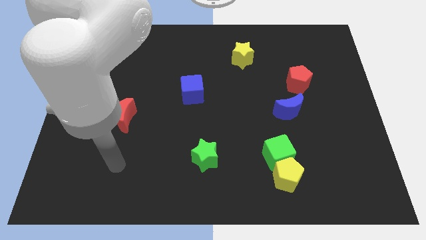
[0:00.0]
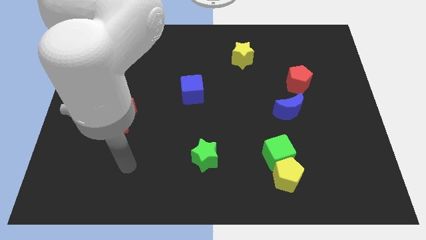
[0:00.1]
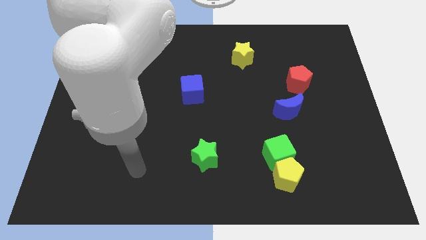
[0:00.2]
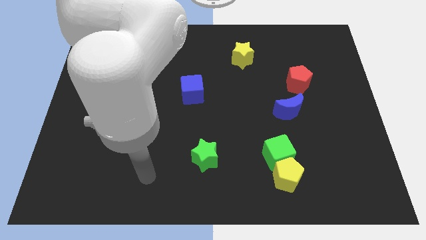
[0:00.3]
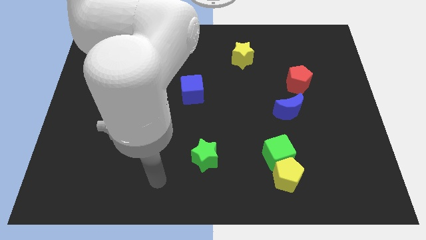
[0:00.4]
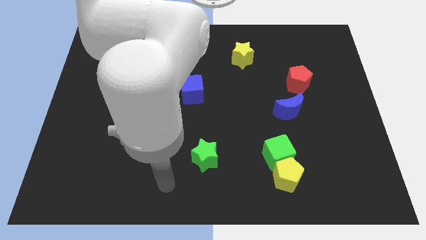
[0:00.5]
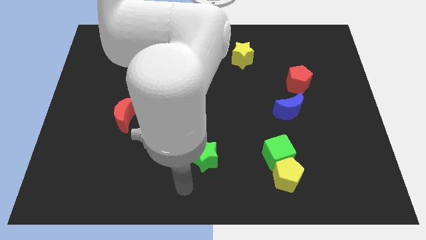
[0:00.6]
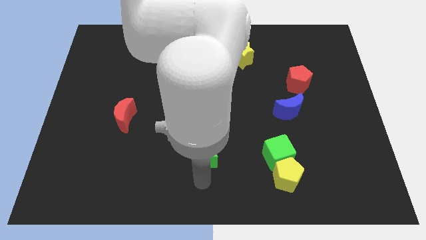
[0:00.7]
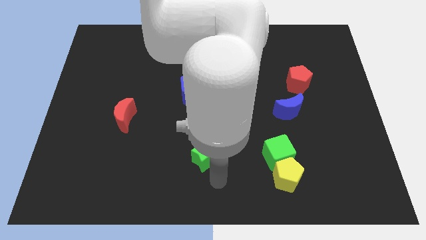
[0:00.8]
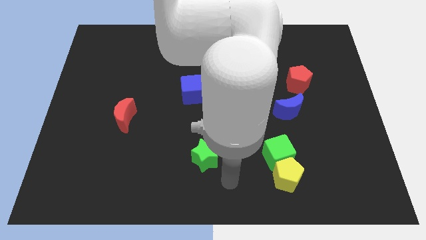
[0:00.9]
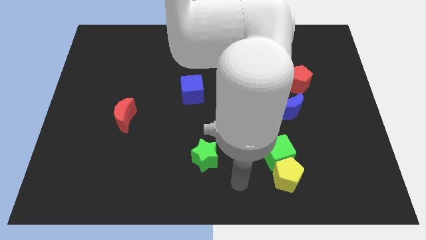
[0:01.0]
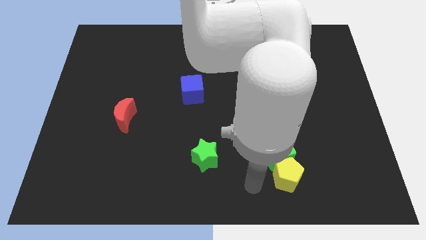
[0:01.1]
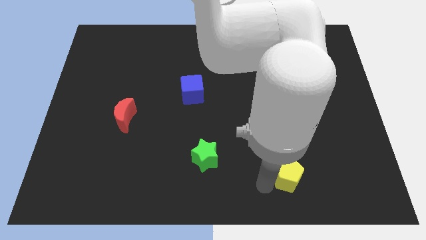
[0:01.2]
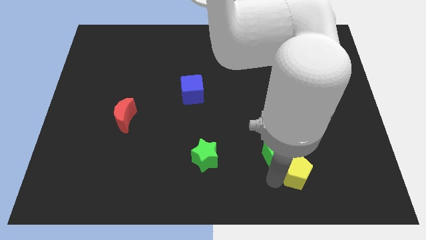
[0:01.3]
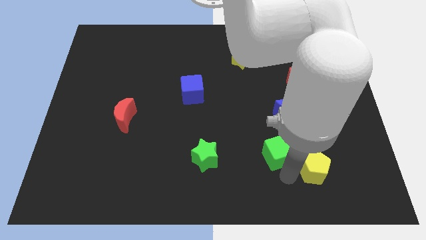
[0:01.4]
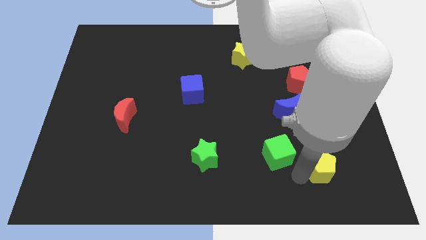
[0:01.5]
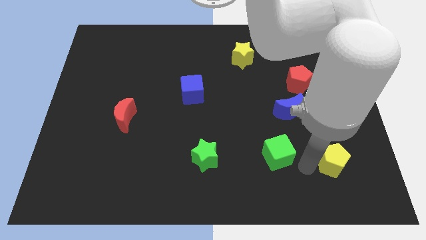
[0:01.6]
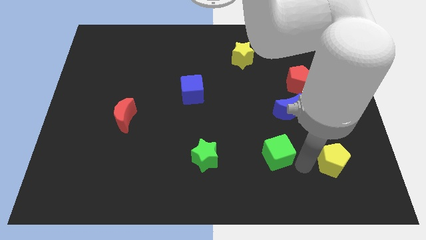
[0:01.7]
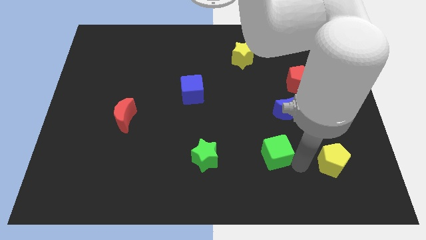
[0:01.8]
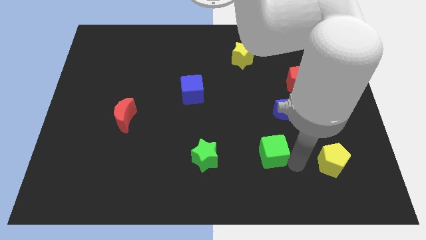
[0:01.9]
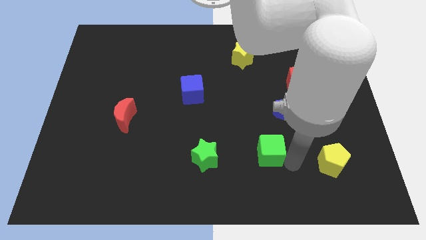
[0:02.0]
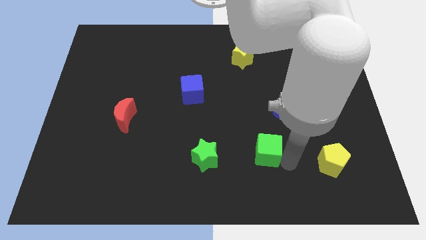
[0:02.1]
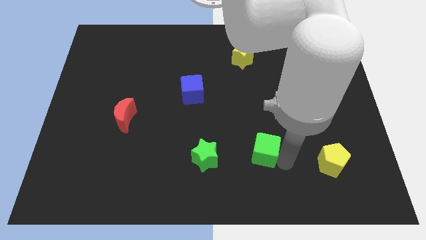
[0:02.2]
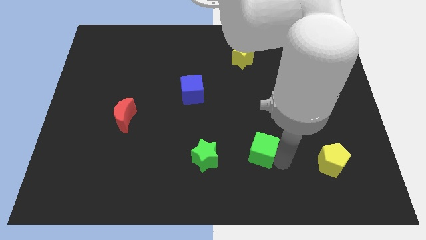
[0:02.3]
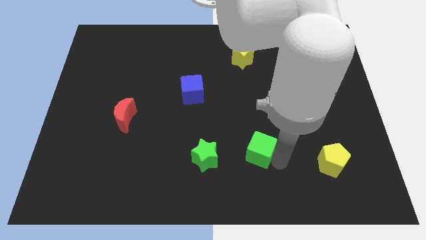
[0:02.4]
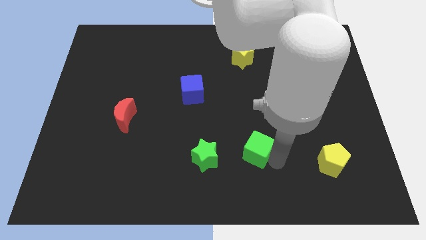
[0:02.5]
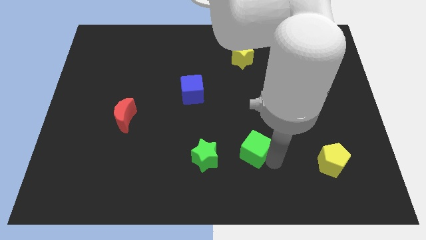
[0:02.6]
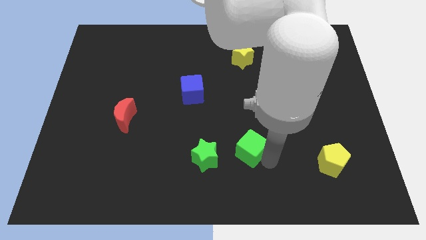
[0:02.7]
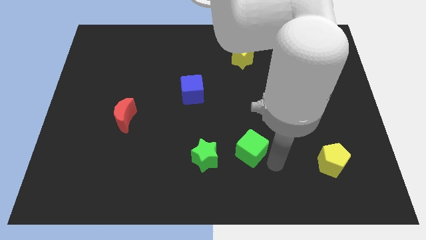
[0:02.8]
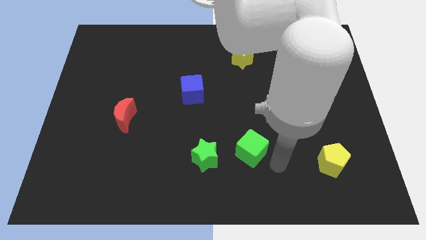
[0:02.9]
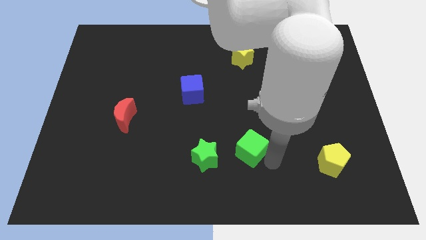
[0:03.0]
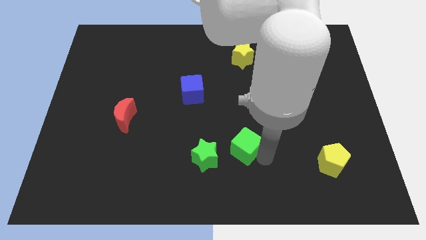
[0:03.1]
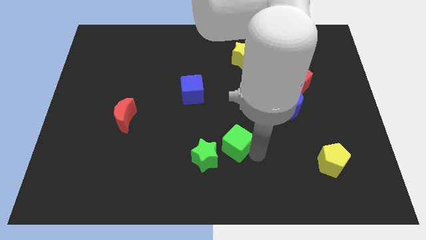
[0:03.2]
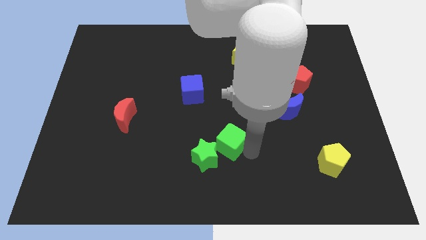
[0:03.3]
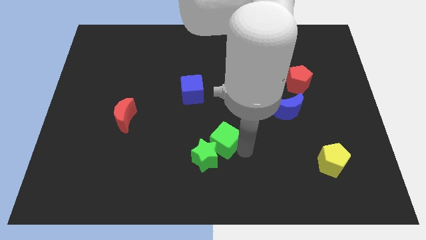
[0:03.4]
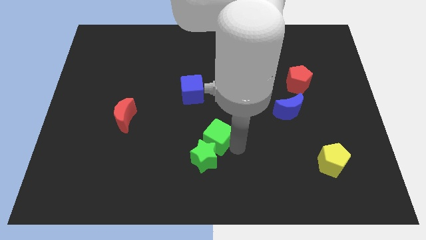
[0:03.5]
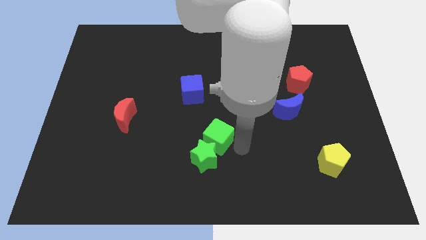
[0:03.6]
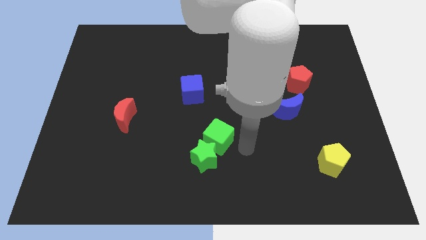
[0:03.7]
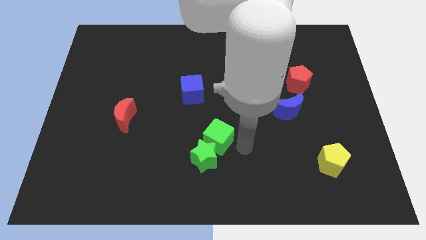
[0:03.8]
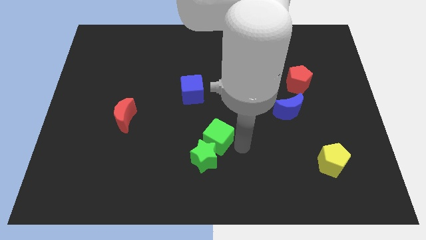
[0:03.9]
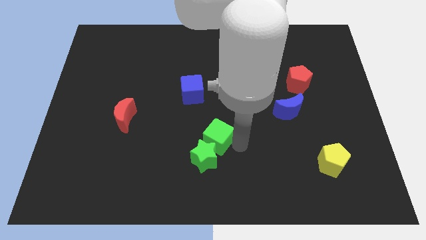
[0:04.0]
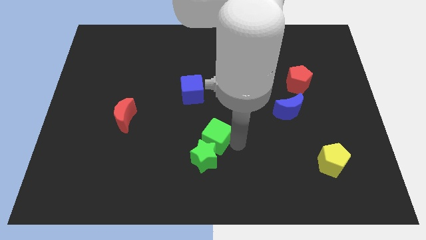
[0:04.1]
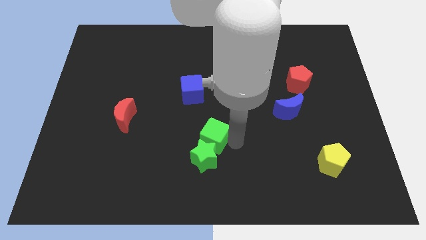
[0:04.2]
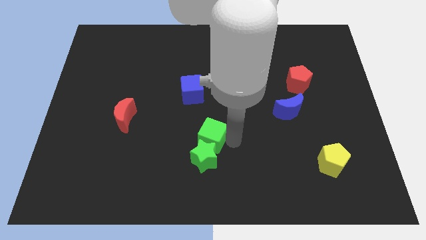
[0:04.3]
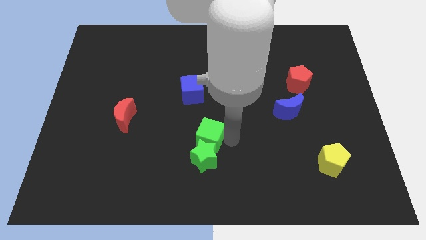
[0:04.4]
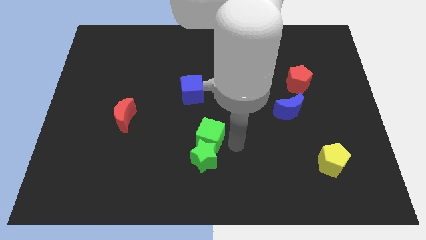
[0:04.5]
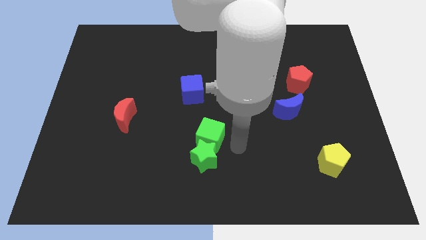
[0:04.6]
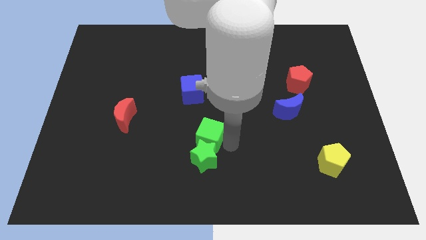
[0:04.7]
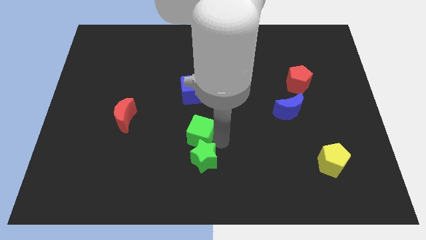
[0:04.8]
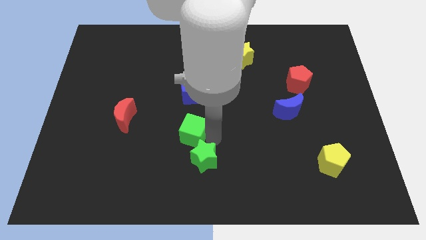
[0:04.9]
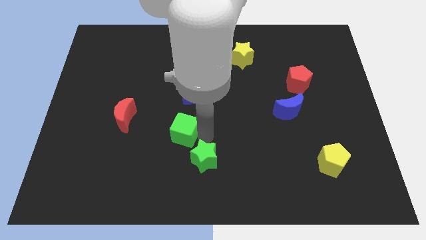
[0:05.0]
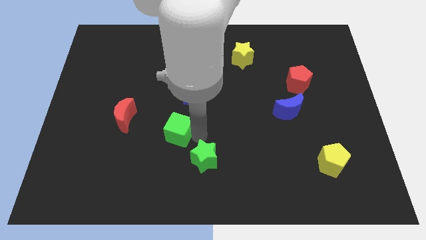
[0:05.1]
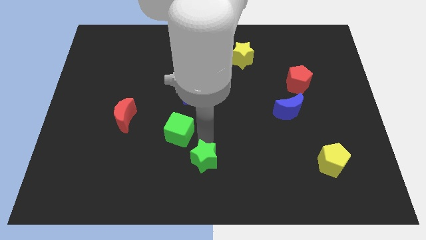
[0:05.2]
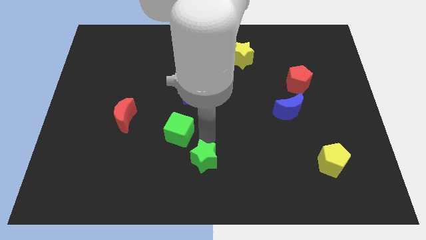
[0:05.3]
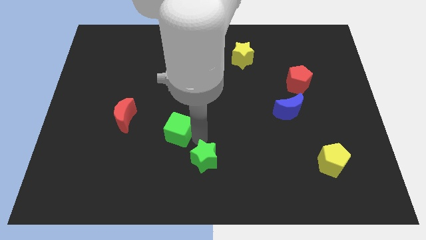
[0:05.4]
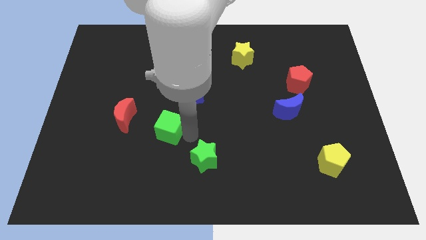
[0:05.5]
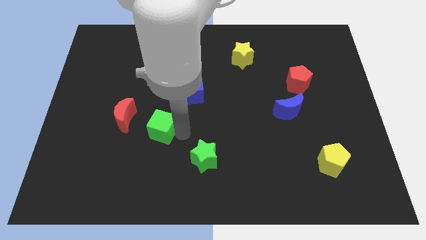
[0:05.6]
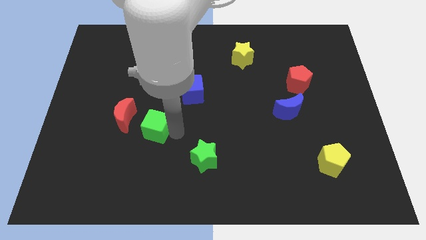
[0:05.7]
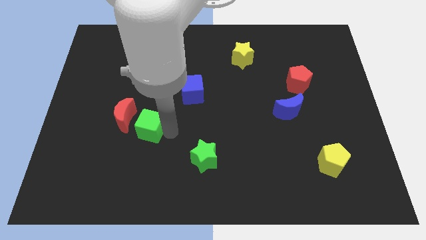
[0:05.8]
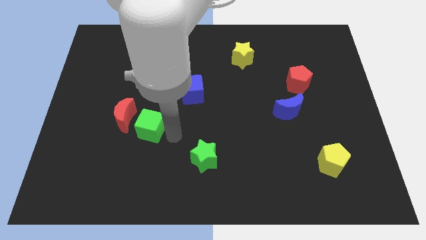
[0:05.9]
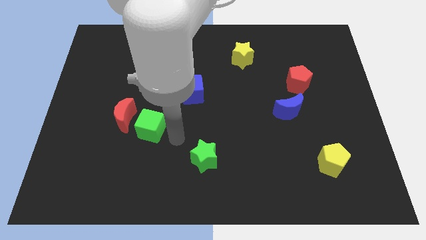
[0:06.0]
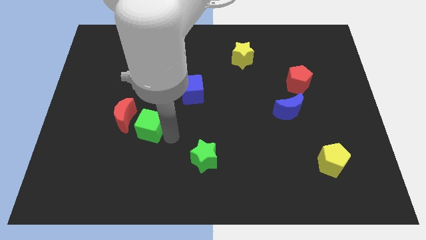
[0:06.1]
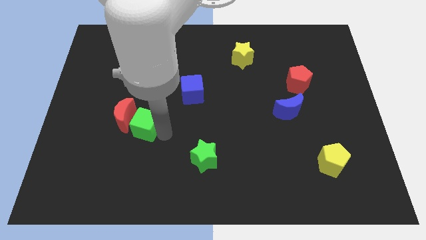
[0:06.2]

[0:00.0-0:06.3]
slide the green cube to the red moon
